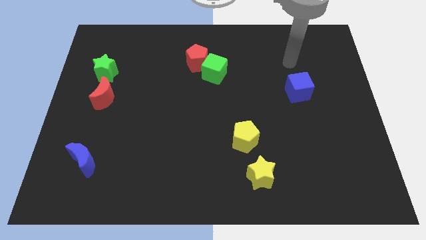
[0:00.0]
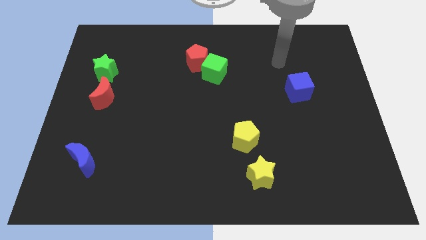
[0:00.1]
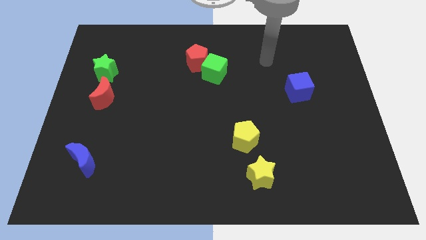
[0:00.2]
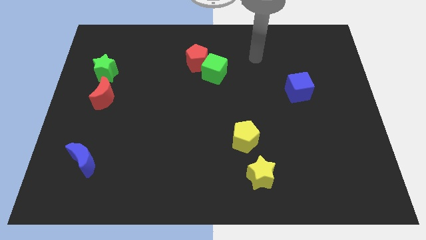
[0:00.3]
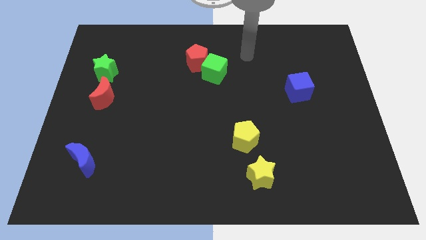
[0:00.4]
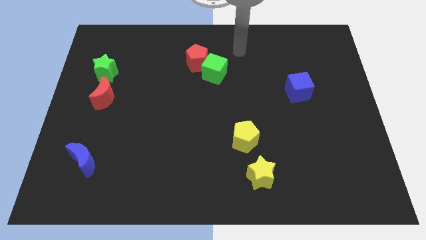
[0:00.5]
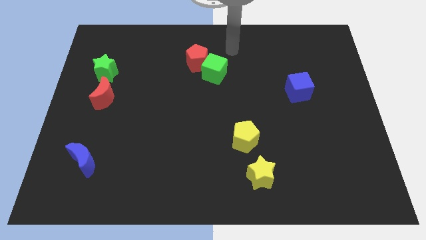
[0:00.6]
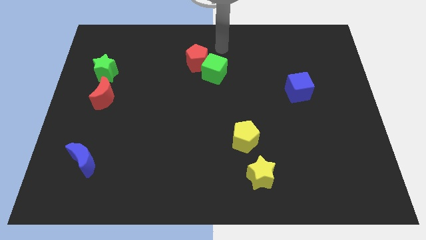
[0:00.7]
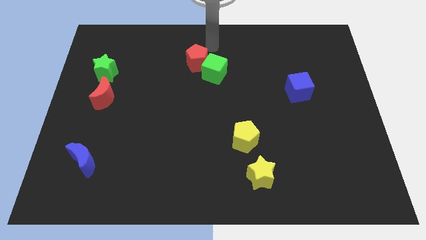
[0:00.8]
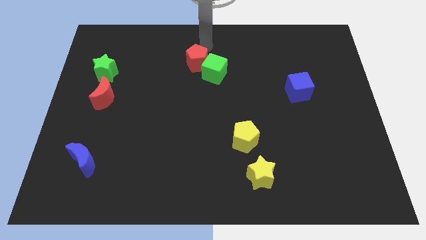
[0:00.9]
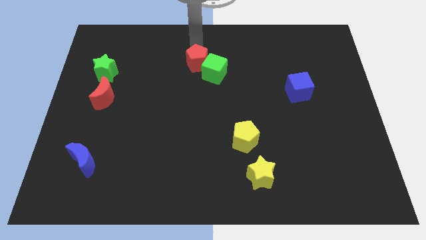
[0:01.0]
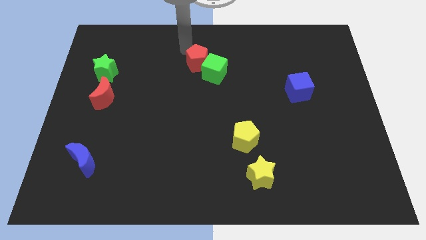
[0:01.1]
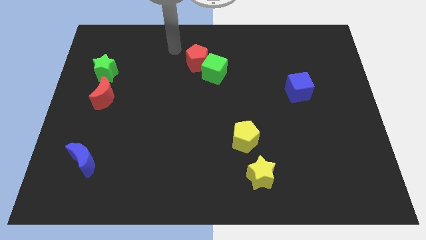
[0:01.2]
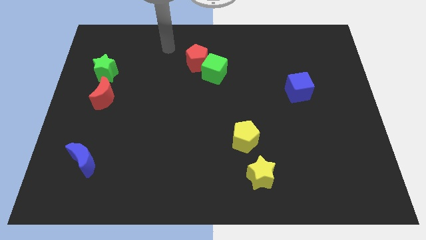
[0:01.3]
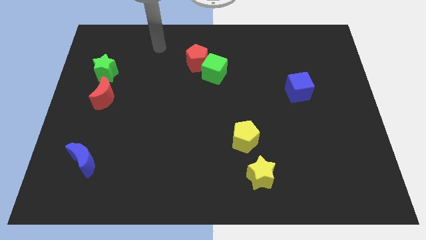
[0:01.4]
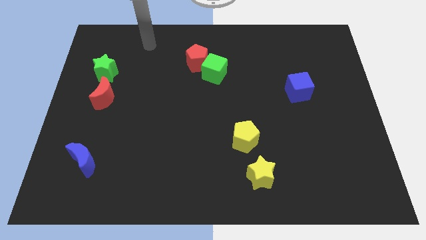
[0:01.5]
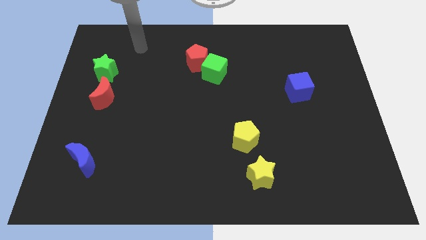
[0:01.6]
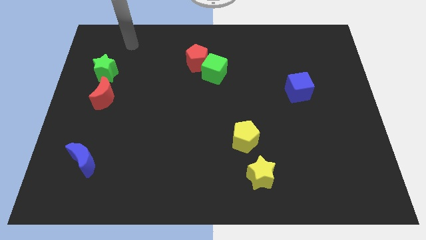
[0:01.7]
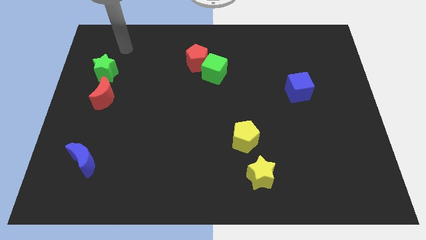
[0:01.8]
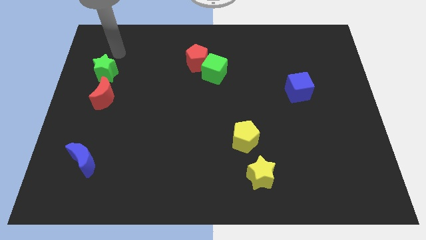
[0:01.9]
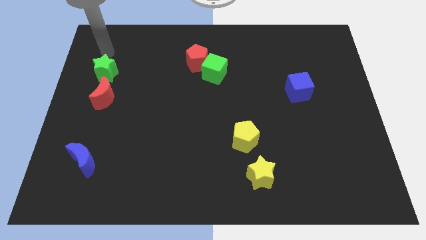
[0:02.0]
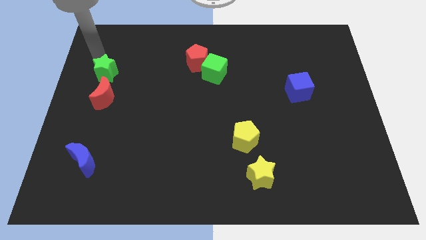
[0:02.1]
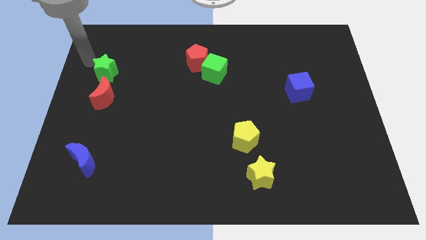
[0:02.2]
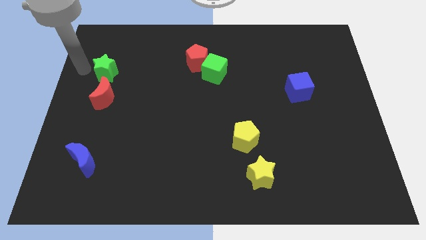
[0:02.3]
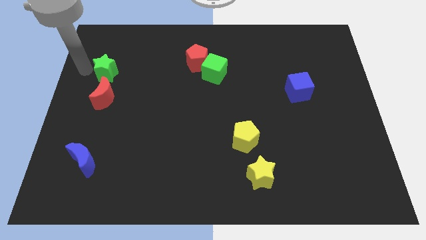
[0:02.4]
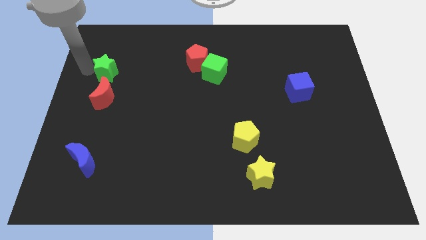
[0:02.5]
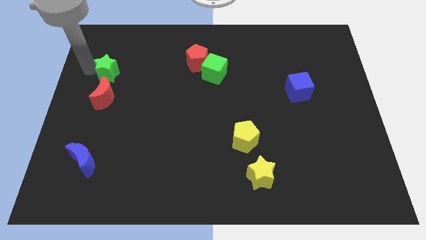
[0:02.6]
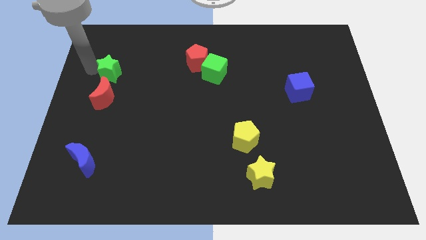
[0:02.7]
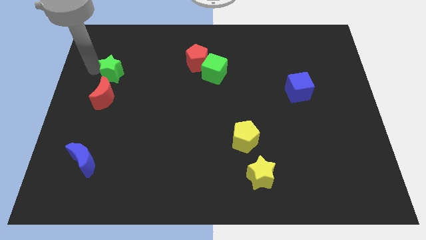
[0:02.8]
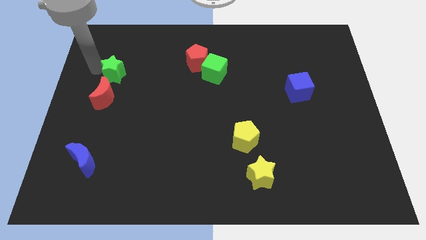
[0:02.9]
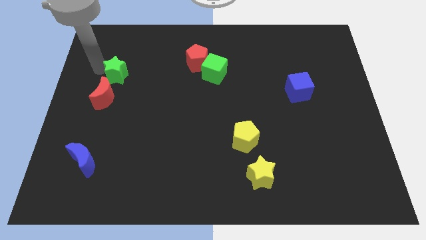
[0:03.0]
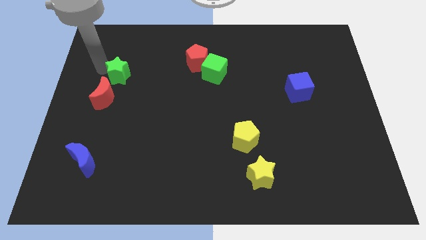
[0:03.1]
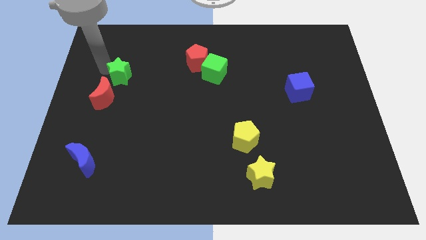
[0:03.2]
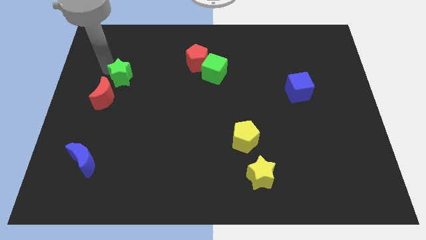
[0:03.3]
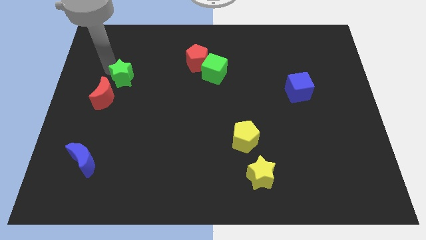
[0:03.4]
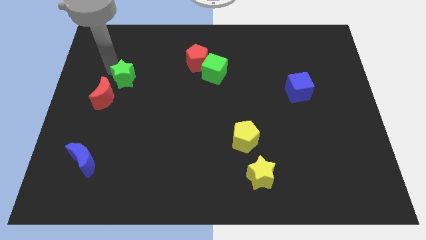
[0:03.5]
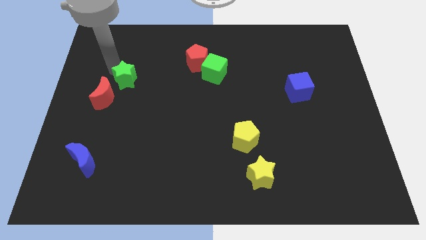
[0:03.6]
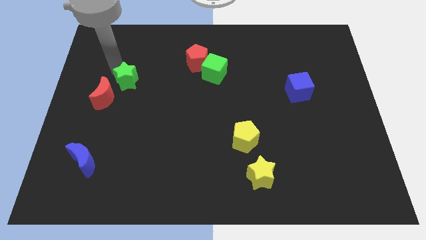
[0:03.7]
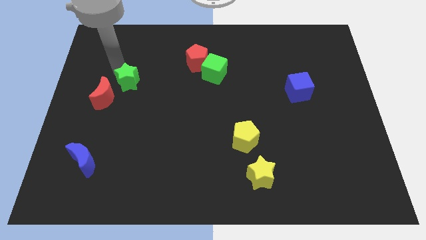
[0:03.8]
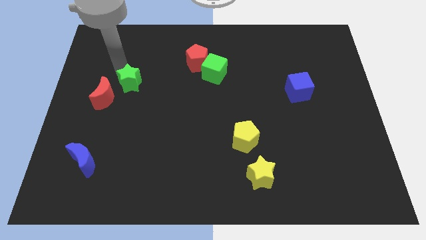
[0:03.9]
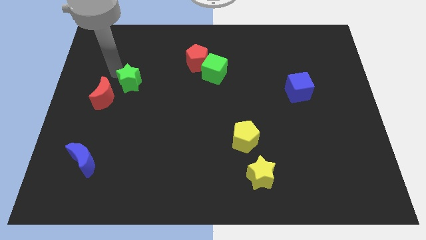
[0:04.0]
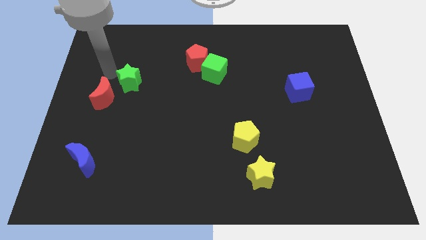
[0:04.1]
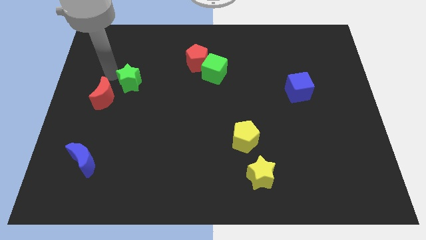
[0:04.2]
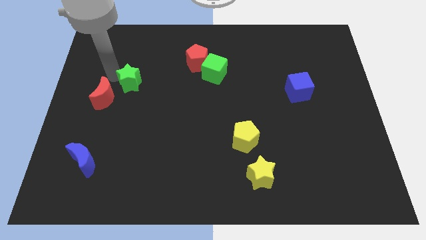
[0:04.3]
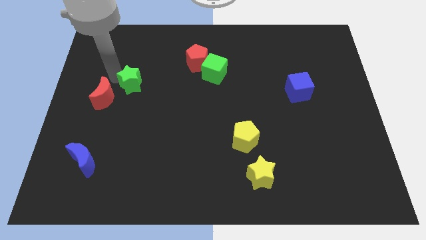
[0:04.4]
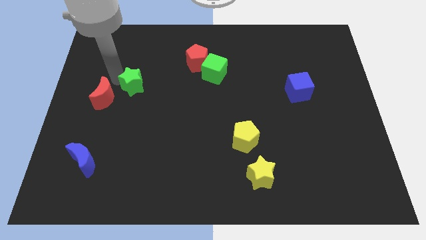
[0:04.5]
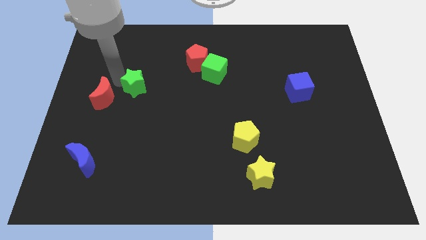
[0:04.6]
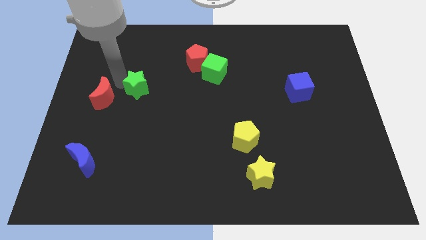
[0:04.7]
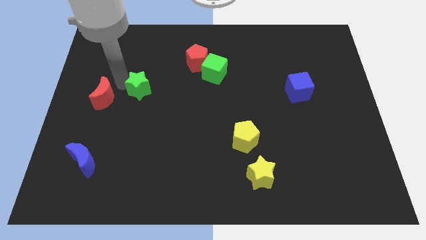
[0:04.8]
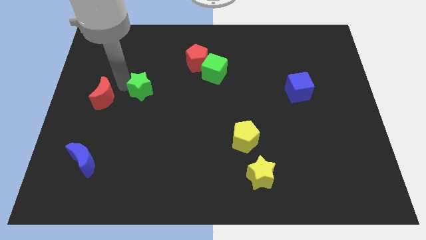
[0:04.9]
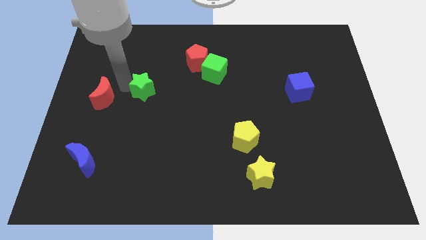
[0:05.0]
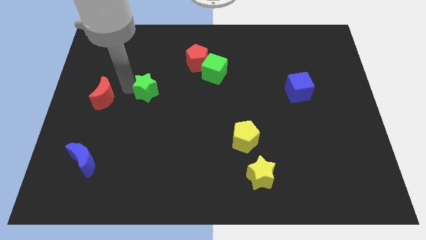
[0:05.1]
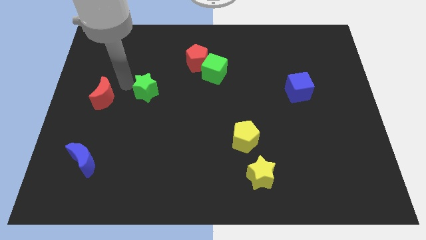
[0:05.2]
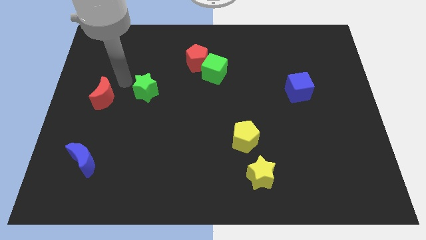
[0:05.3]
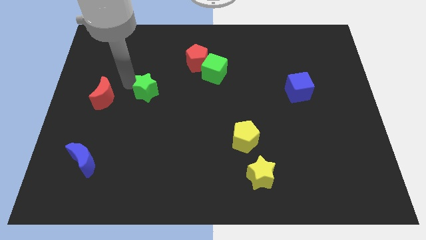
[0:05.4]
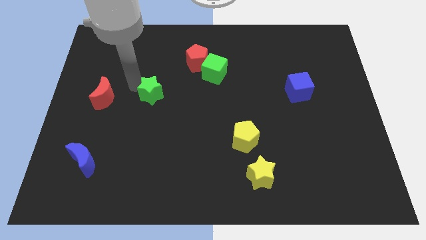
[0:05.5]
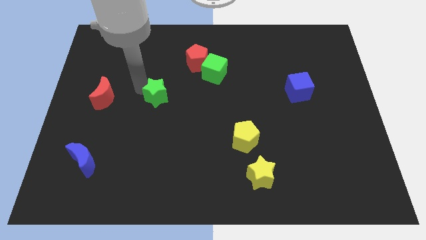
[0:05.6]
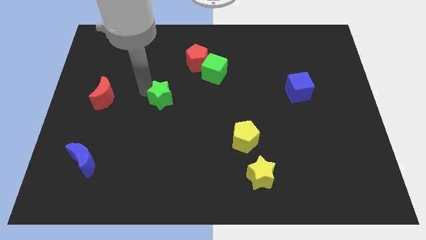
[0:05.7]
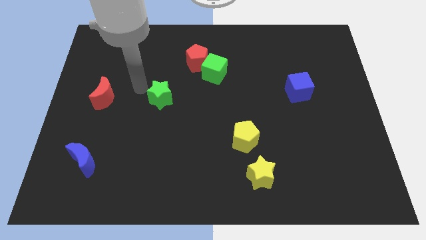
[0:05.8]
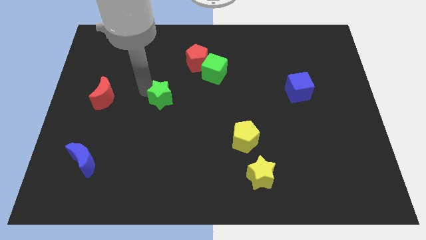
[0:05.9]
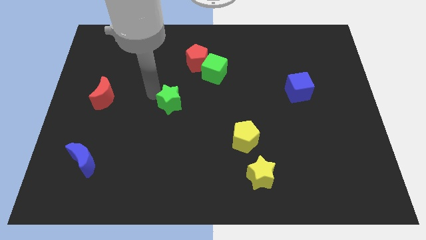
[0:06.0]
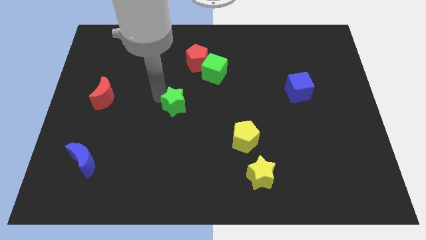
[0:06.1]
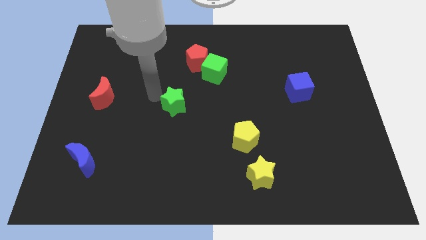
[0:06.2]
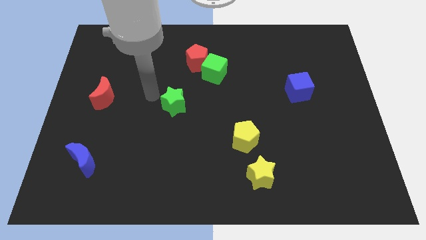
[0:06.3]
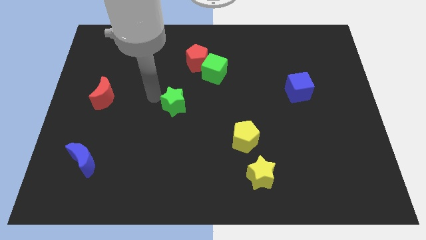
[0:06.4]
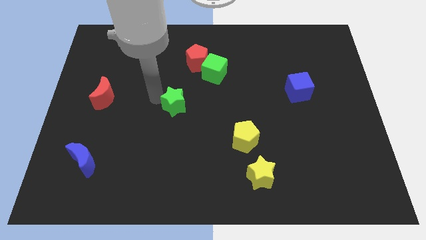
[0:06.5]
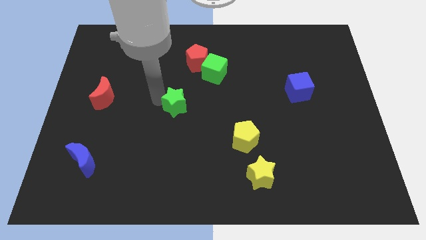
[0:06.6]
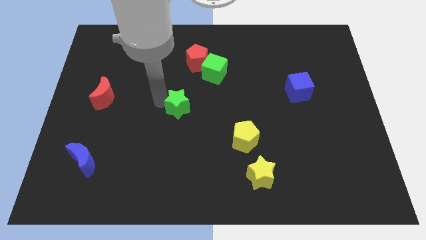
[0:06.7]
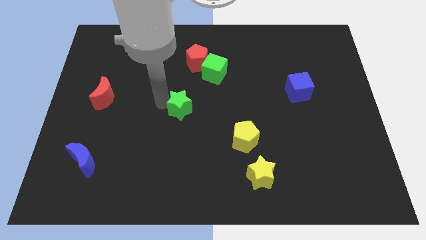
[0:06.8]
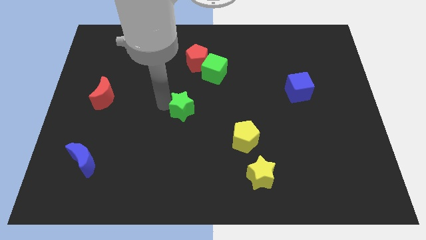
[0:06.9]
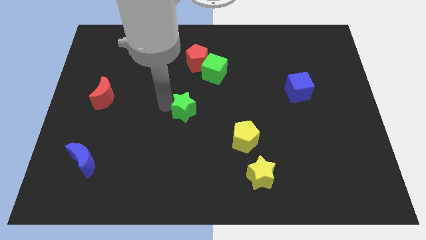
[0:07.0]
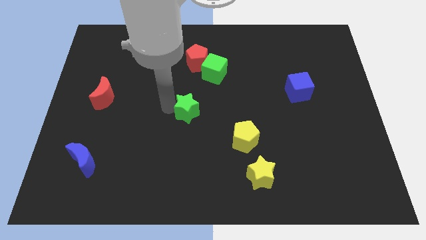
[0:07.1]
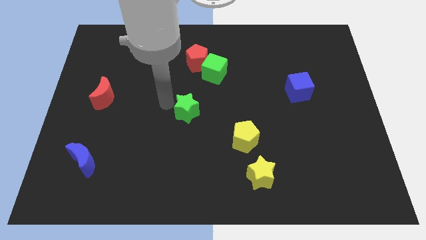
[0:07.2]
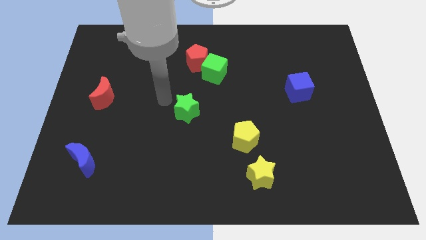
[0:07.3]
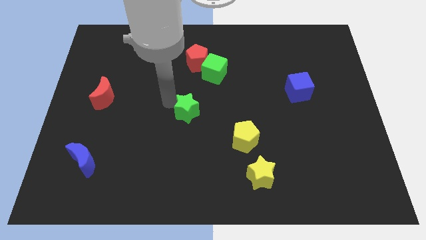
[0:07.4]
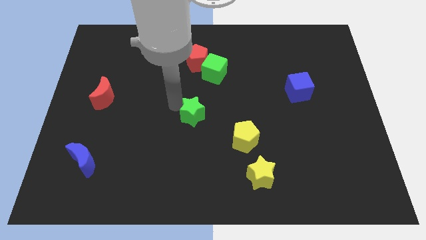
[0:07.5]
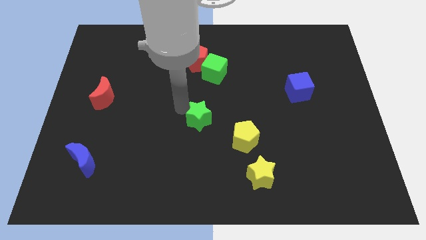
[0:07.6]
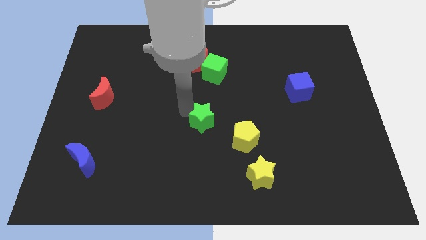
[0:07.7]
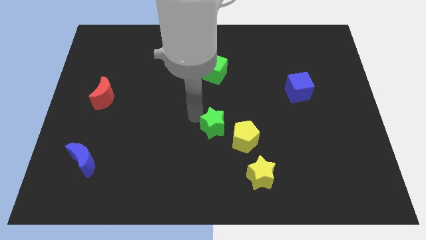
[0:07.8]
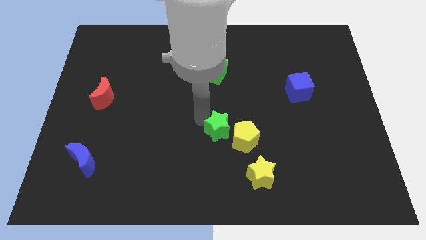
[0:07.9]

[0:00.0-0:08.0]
move the green star to the yellow pentagon
